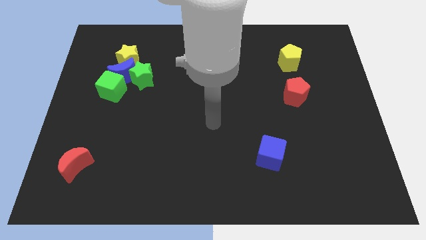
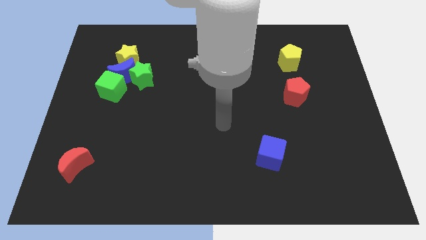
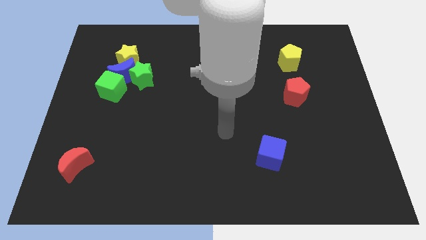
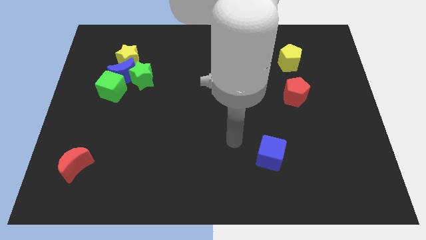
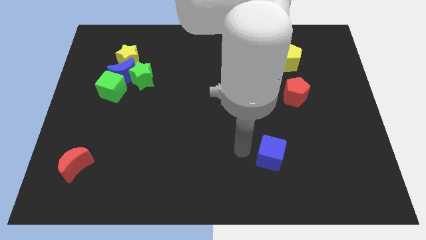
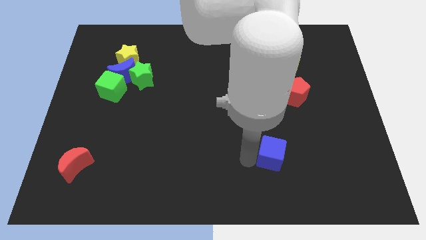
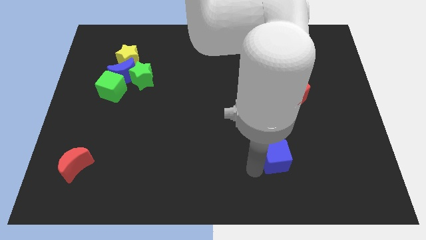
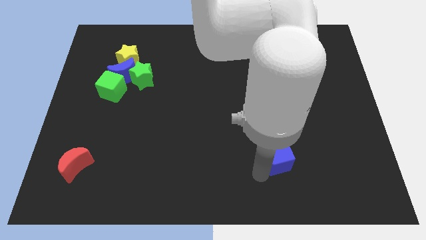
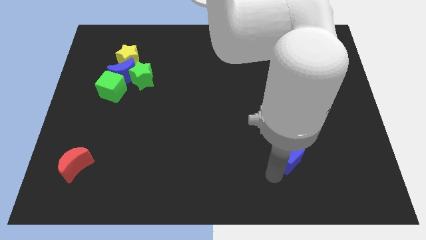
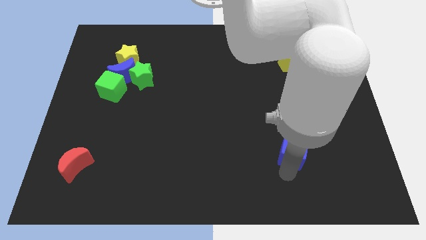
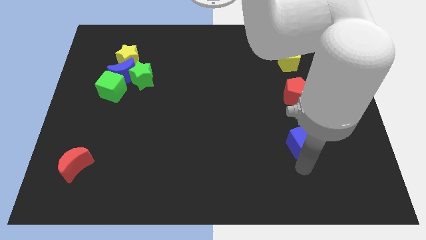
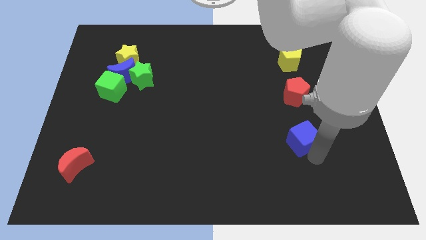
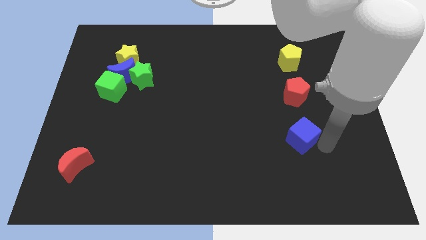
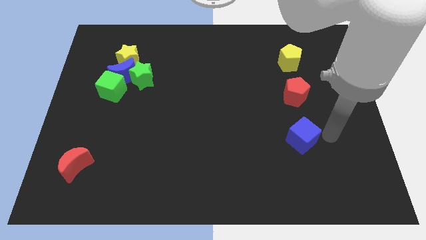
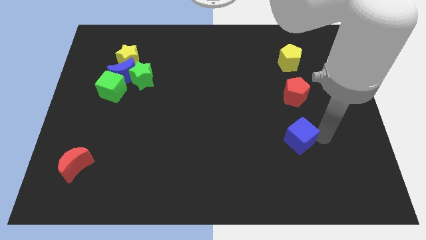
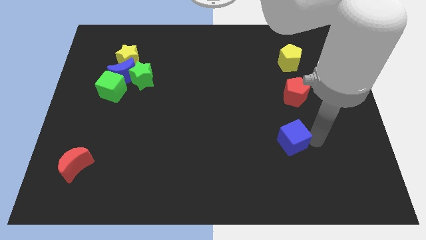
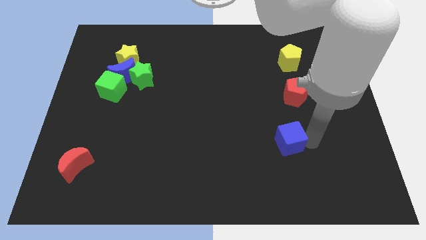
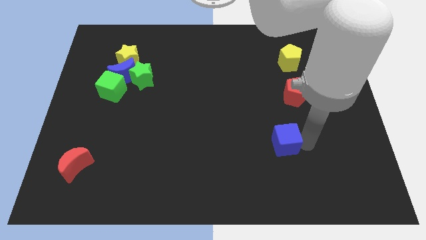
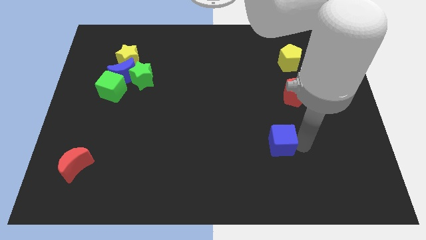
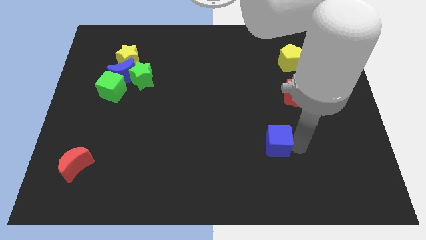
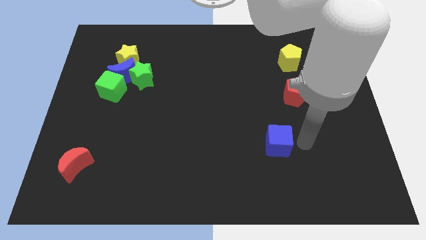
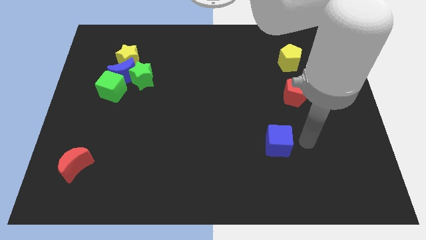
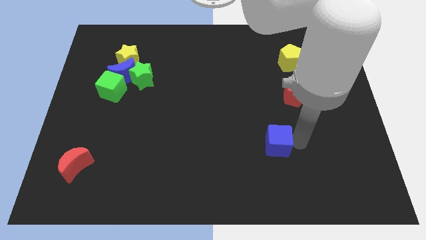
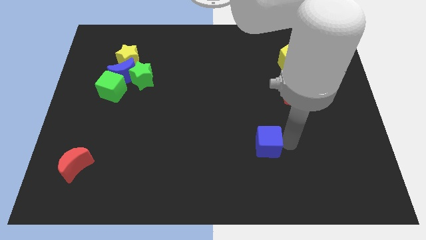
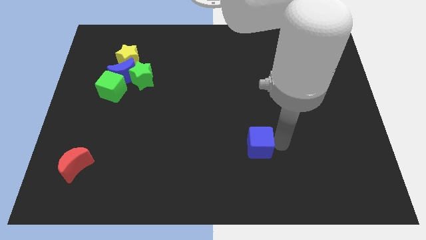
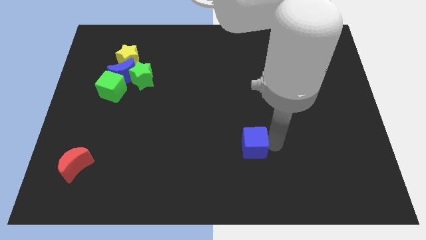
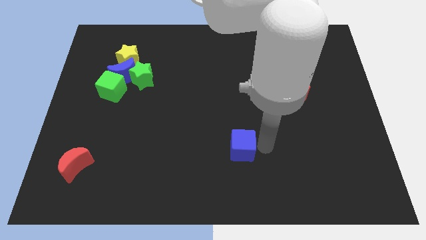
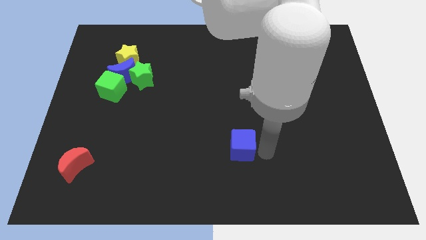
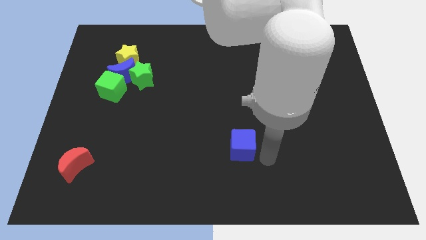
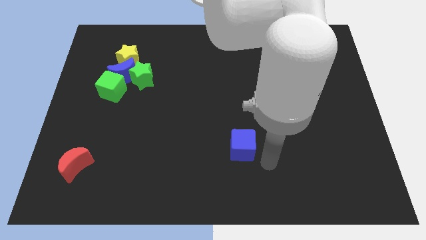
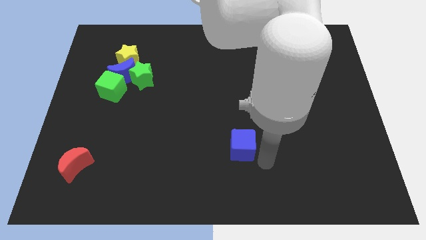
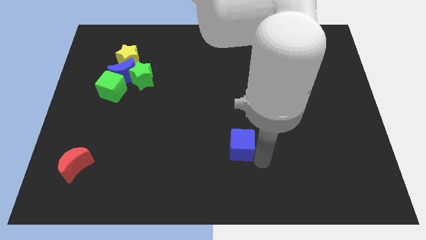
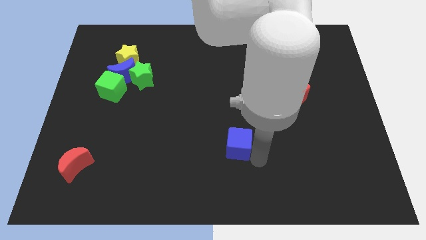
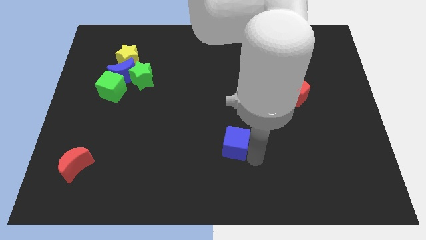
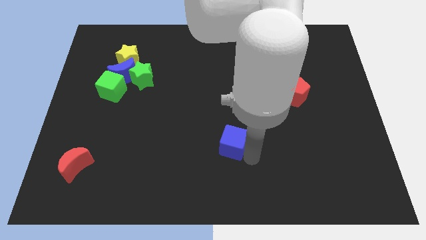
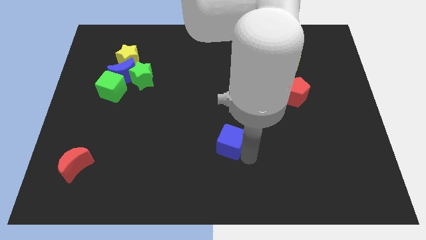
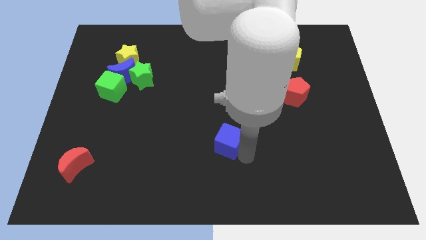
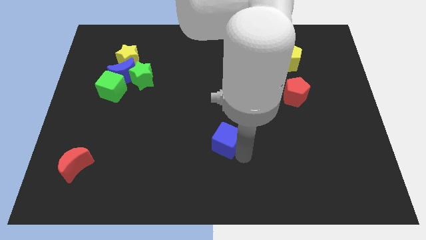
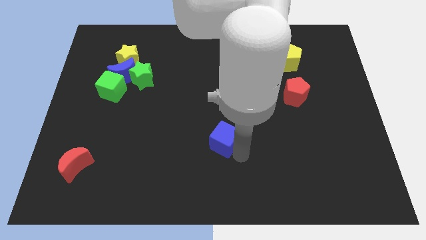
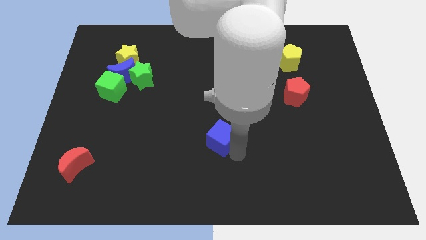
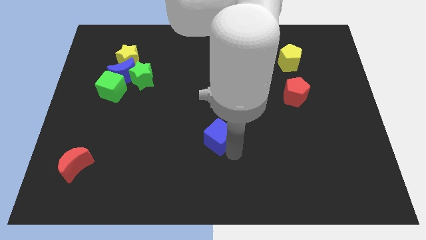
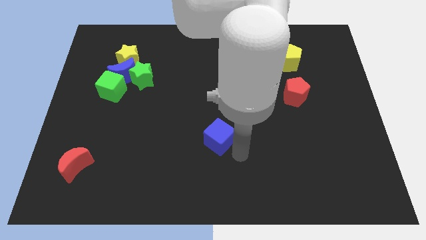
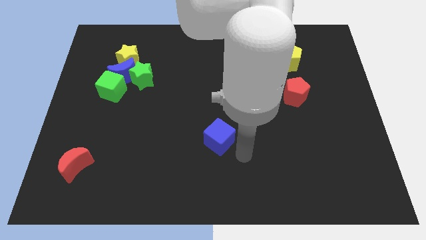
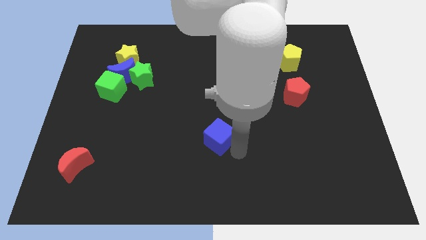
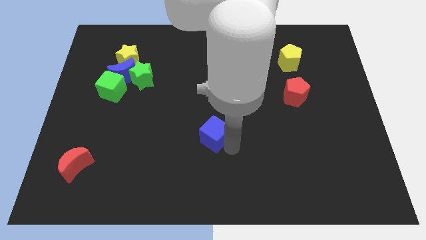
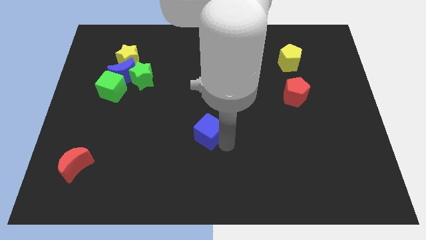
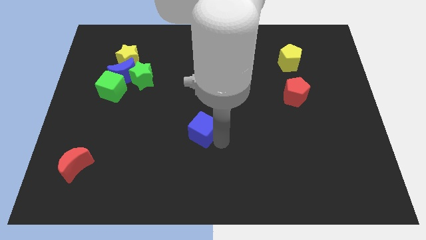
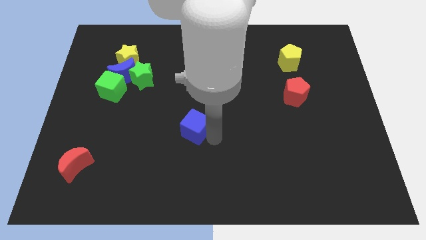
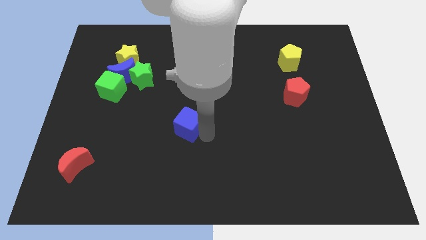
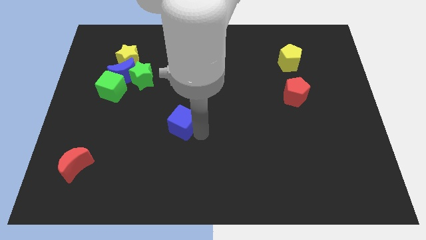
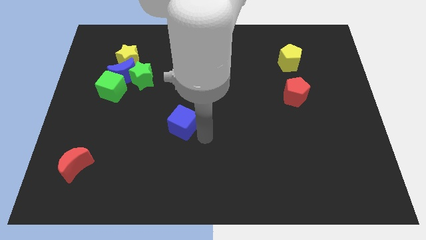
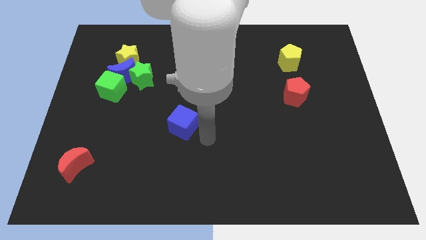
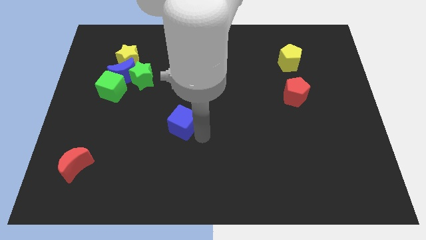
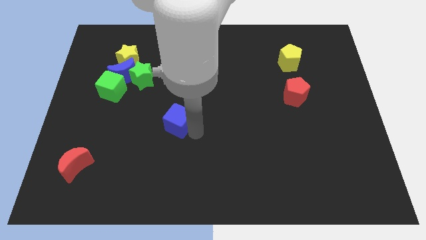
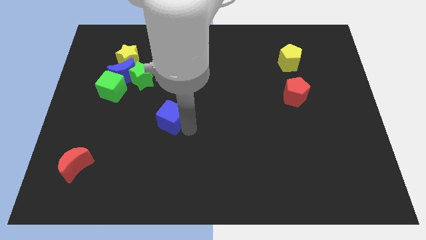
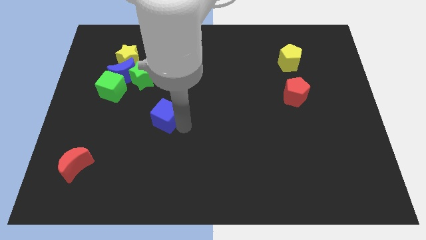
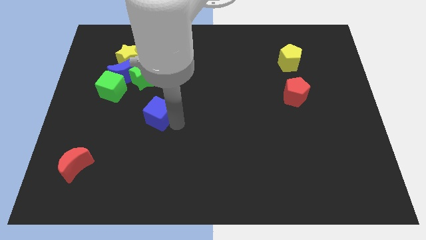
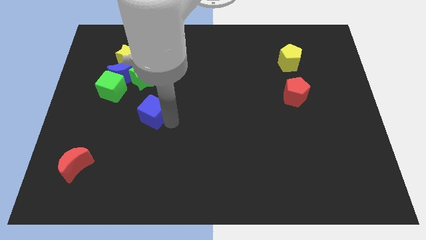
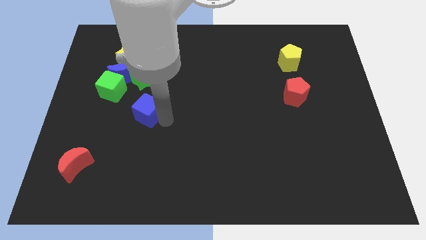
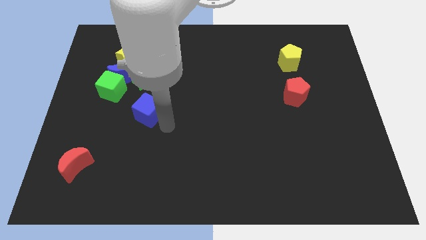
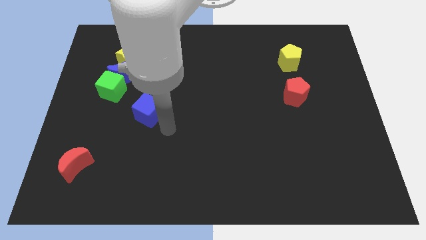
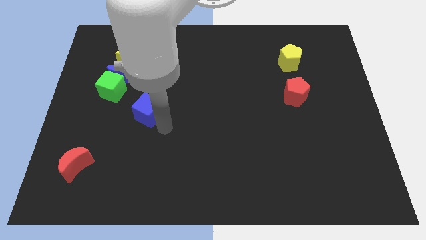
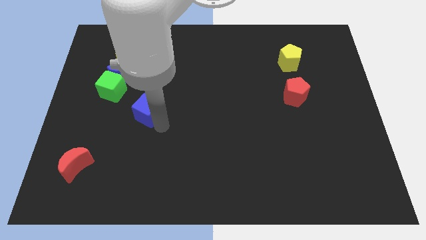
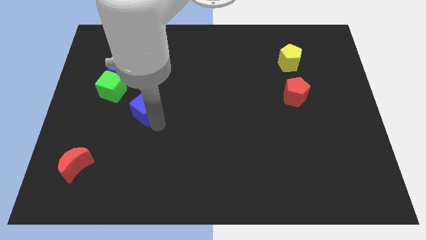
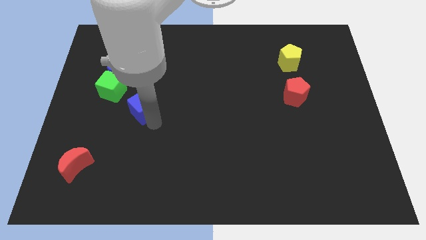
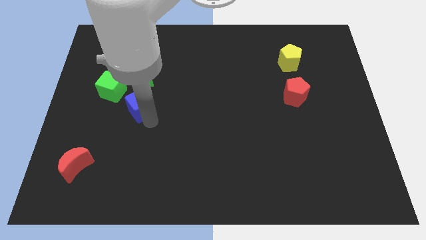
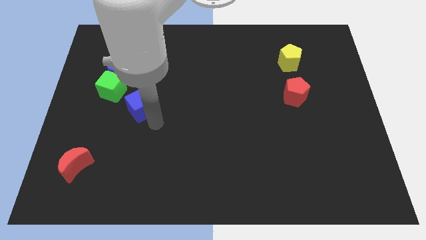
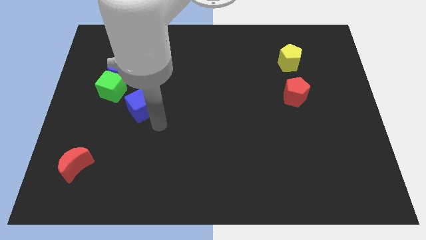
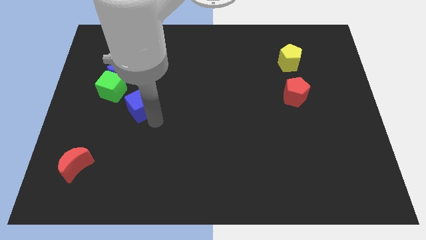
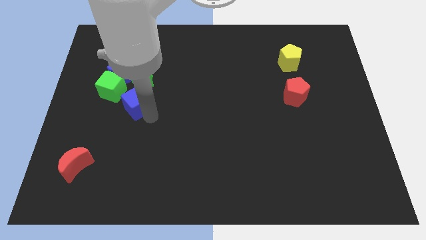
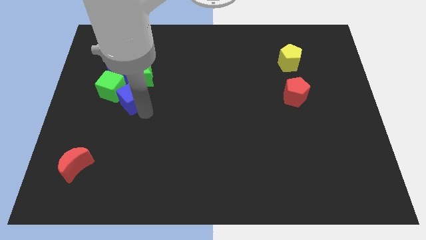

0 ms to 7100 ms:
push the blue cube to the bottom side of the yellow star

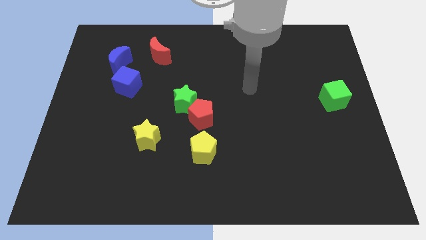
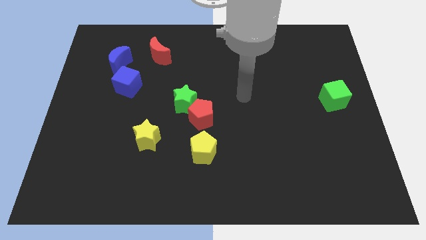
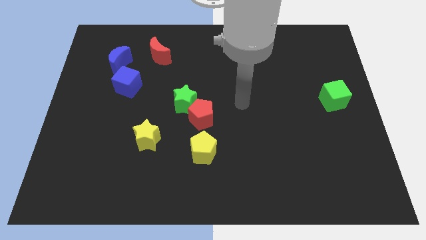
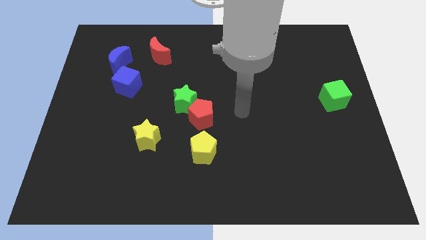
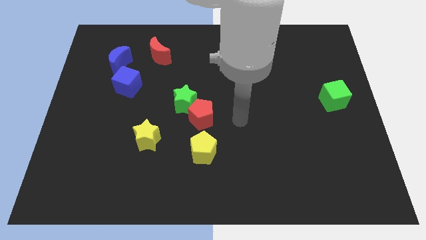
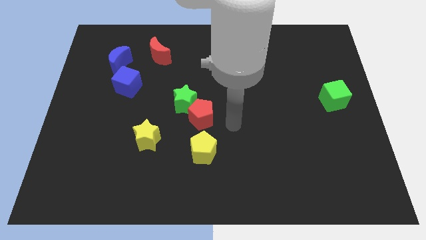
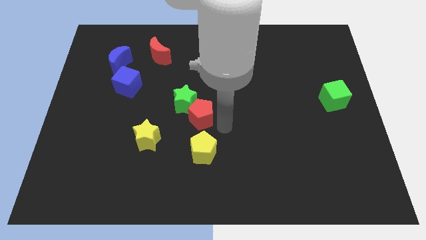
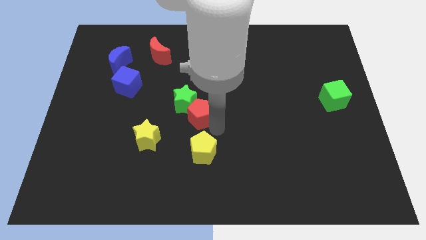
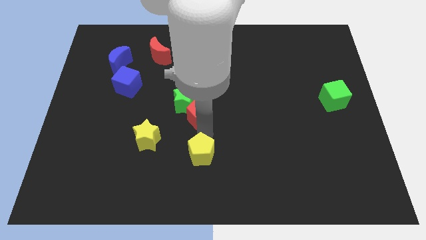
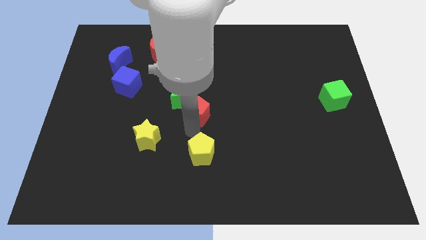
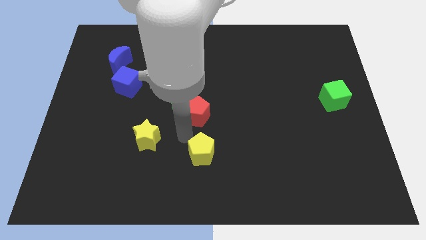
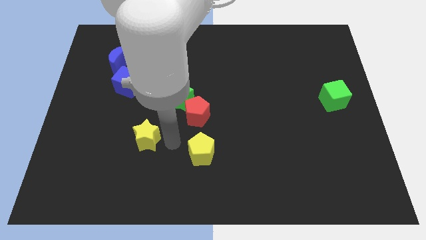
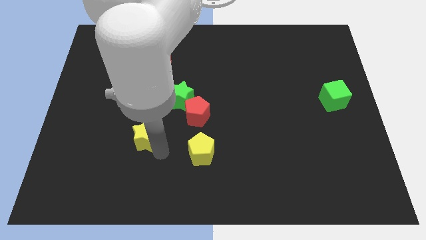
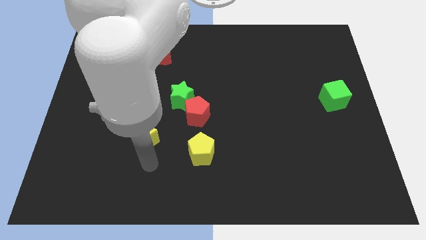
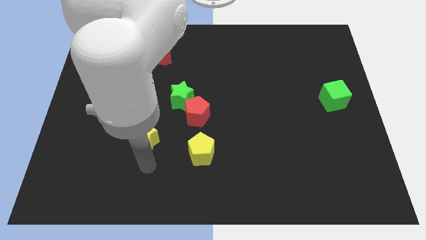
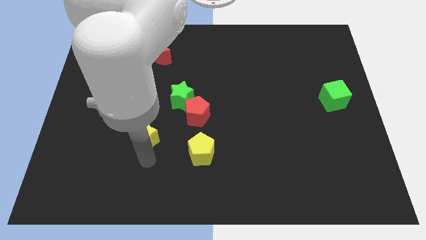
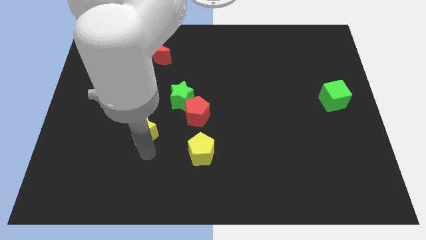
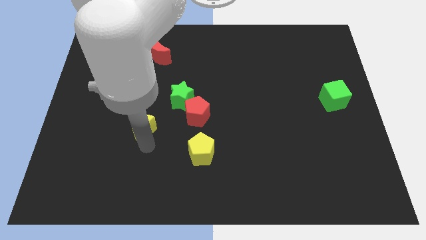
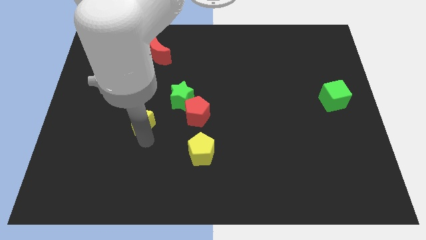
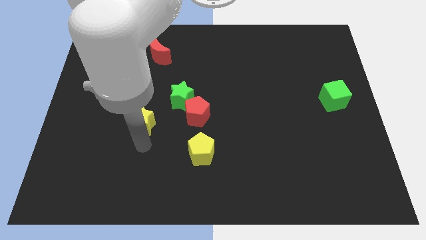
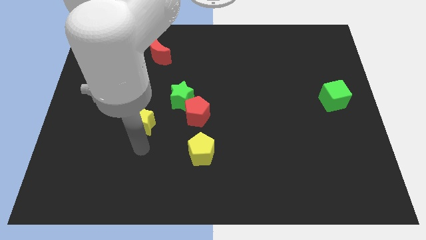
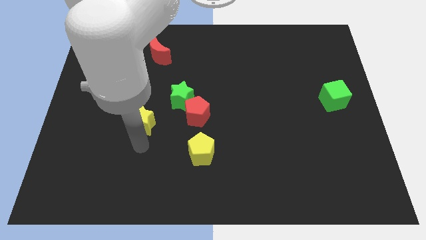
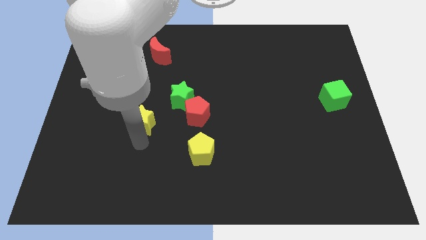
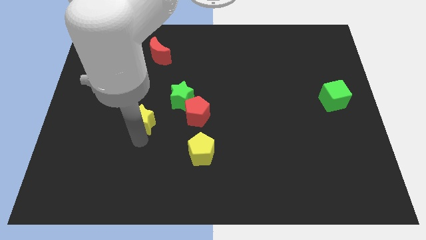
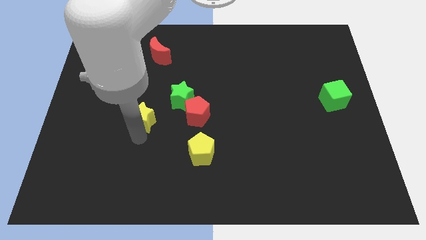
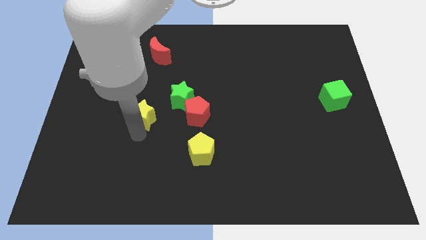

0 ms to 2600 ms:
slide the yellow star to the bottom right side of the blue cube
